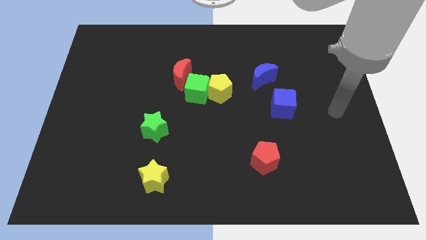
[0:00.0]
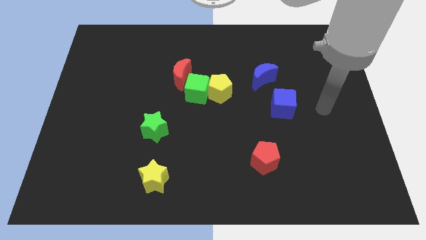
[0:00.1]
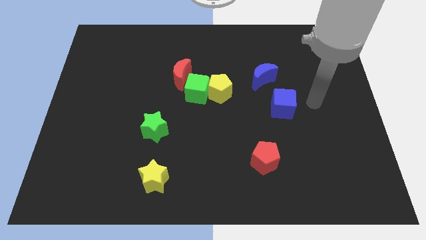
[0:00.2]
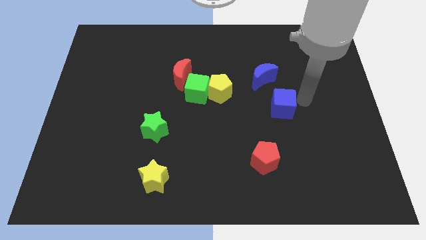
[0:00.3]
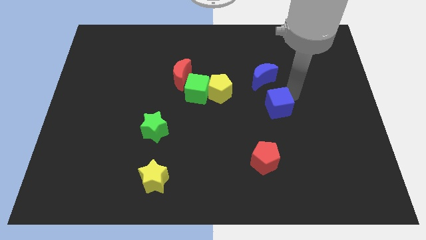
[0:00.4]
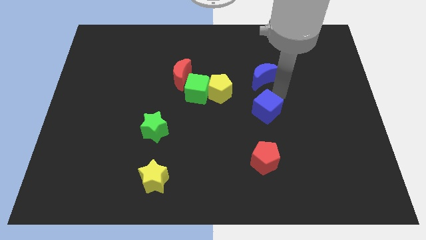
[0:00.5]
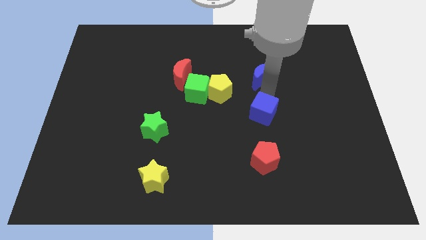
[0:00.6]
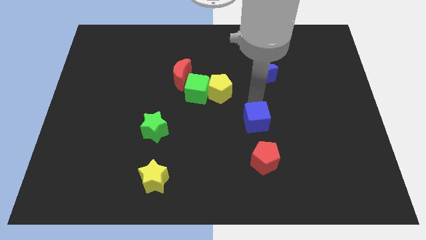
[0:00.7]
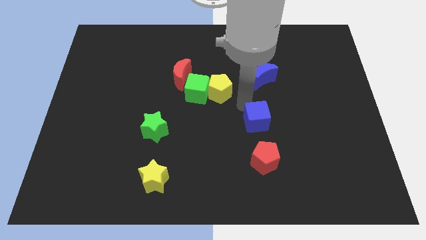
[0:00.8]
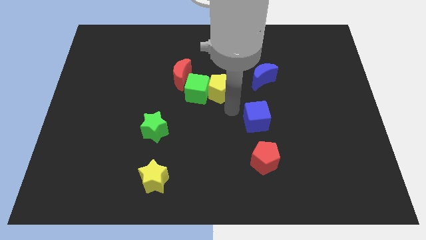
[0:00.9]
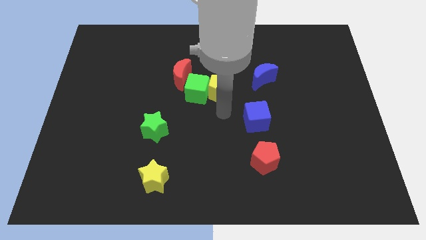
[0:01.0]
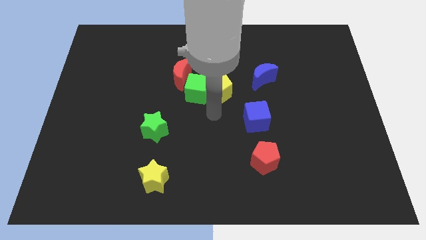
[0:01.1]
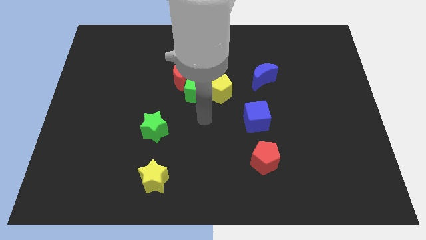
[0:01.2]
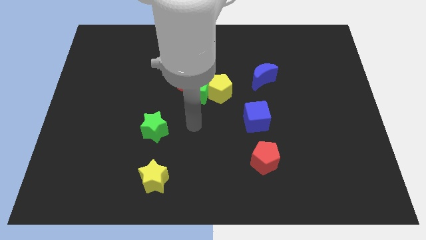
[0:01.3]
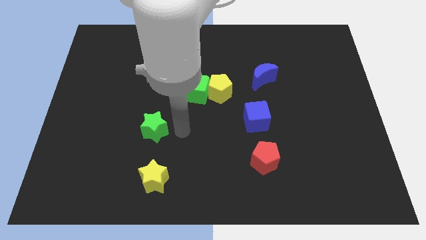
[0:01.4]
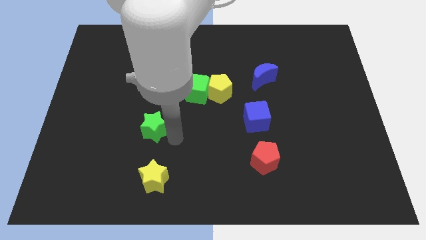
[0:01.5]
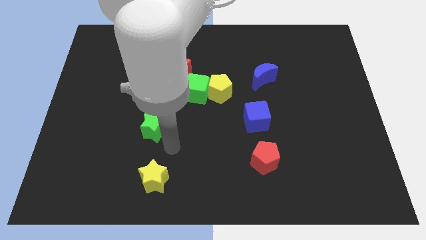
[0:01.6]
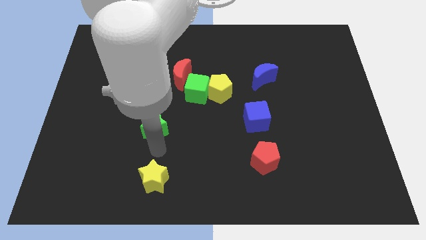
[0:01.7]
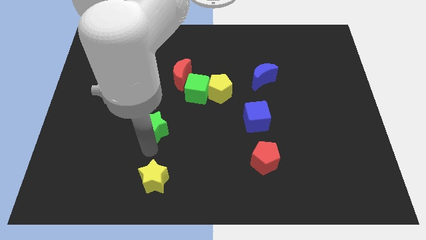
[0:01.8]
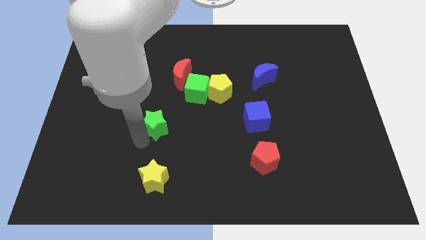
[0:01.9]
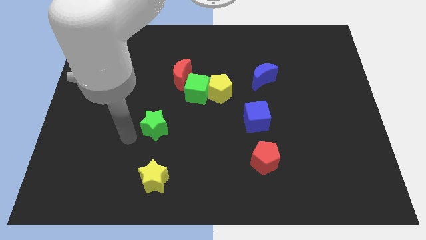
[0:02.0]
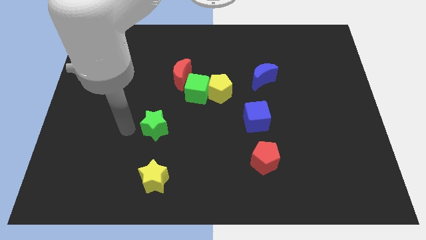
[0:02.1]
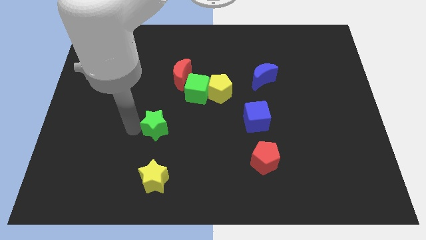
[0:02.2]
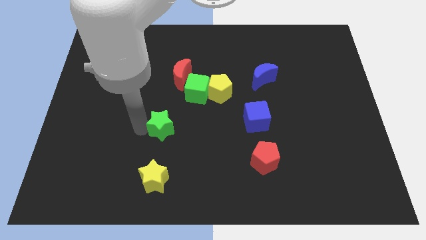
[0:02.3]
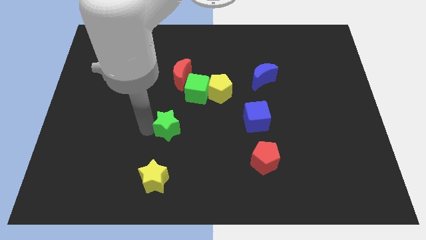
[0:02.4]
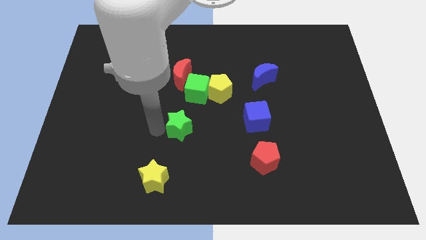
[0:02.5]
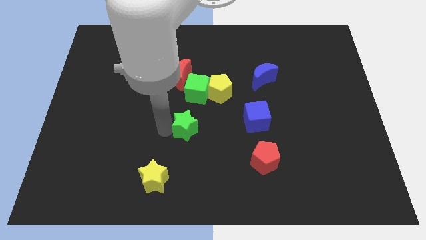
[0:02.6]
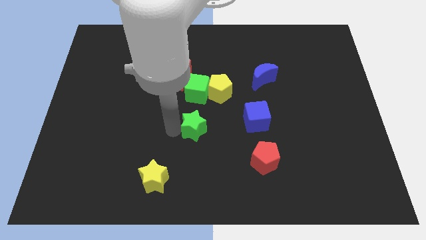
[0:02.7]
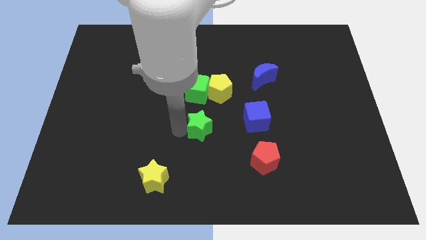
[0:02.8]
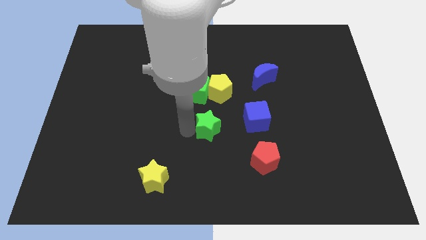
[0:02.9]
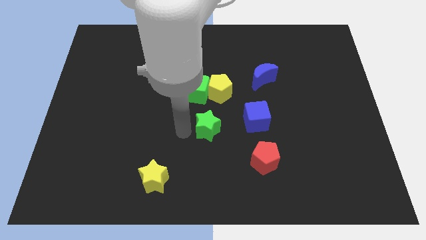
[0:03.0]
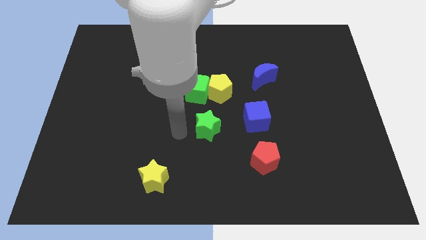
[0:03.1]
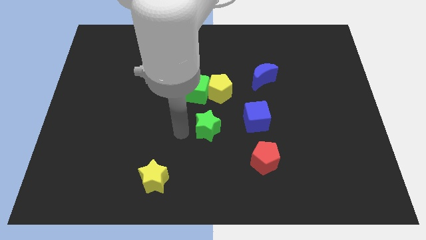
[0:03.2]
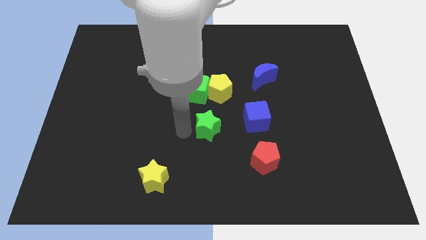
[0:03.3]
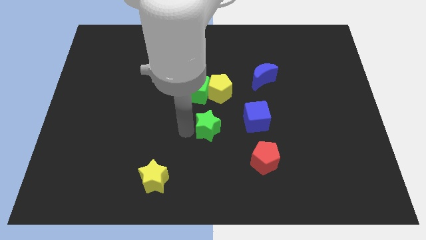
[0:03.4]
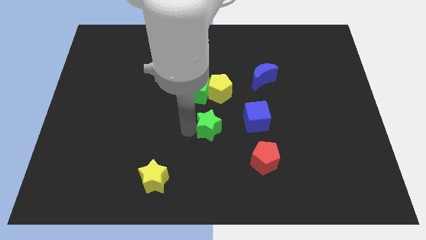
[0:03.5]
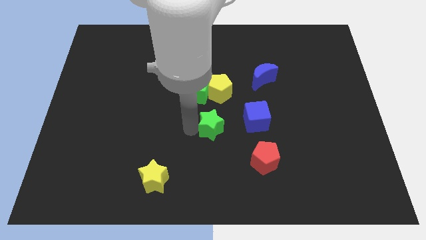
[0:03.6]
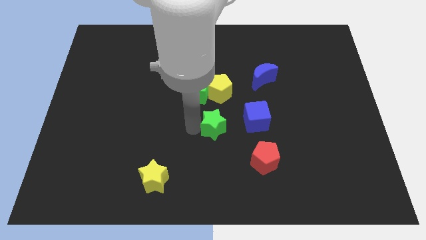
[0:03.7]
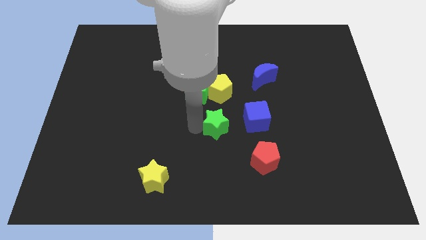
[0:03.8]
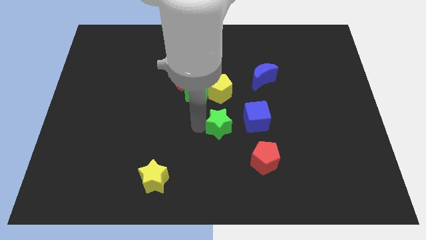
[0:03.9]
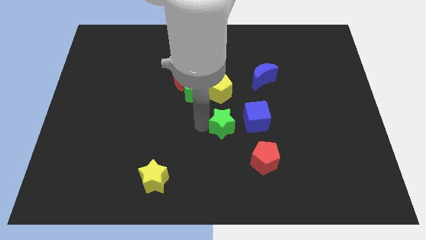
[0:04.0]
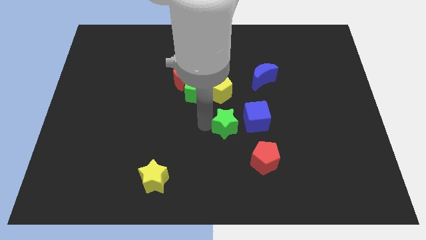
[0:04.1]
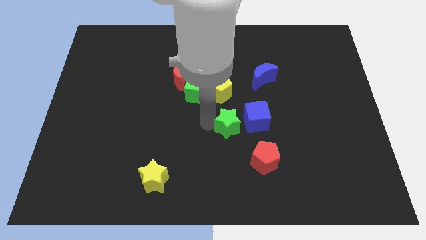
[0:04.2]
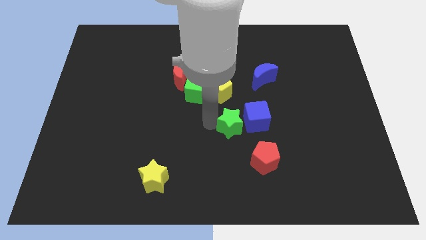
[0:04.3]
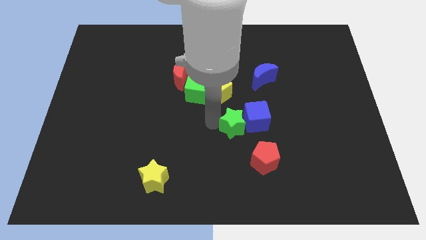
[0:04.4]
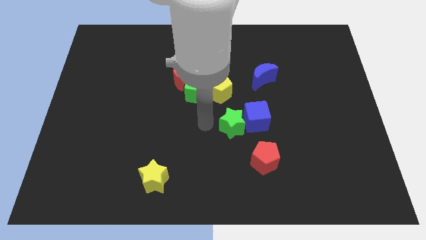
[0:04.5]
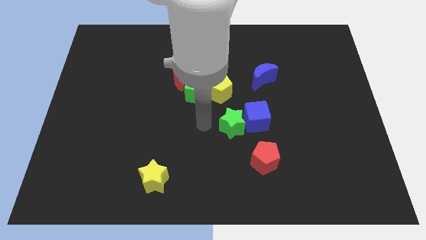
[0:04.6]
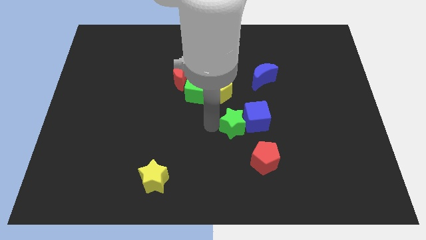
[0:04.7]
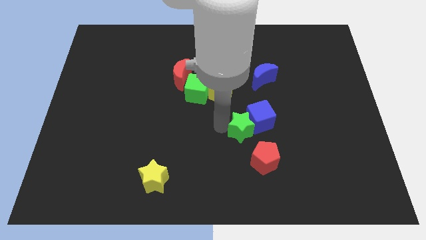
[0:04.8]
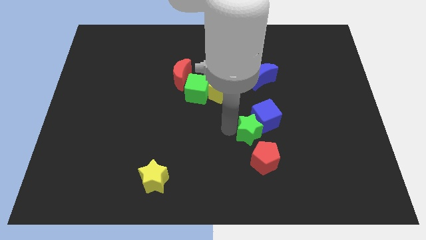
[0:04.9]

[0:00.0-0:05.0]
move the green star to the right

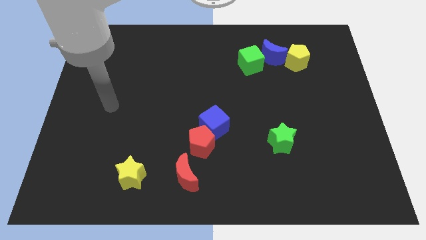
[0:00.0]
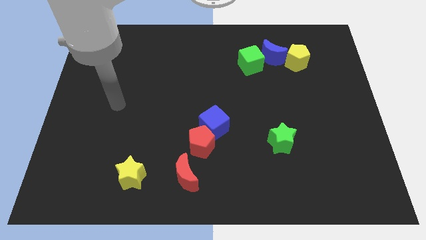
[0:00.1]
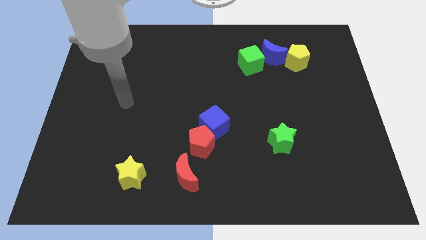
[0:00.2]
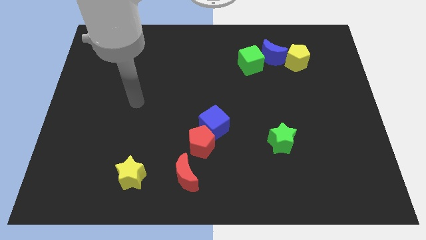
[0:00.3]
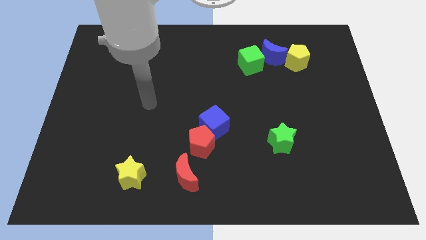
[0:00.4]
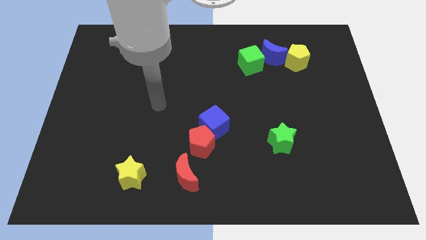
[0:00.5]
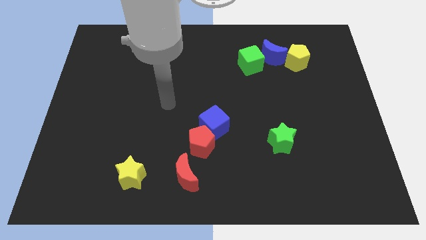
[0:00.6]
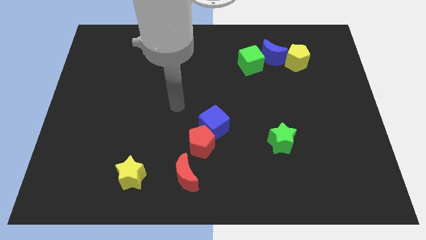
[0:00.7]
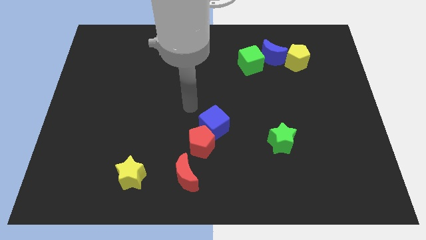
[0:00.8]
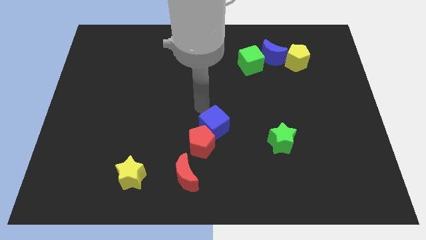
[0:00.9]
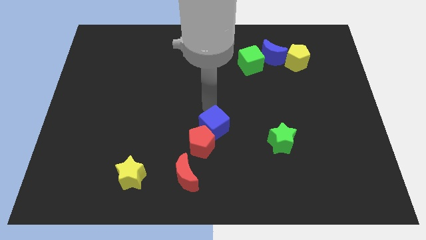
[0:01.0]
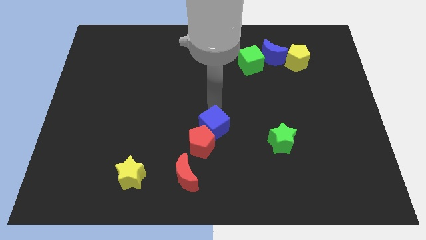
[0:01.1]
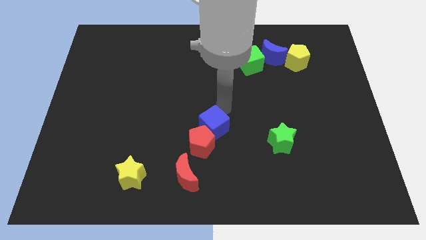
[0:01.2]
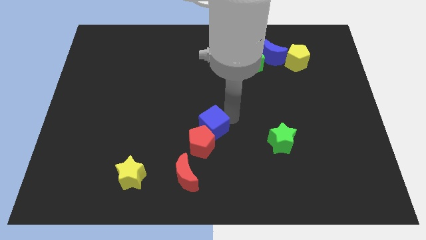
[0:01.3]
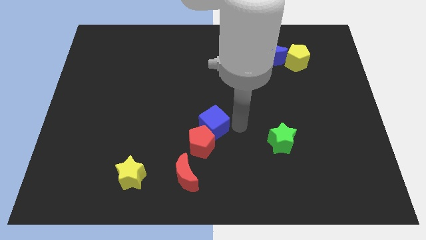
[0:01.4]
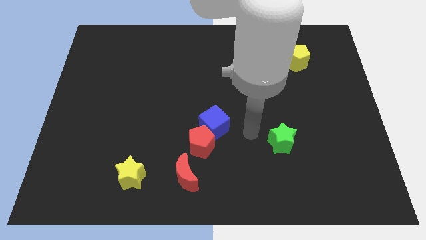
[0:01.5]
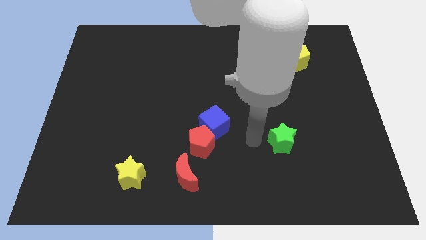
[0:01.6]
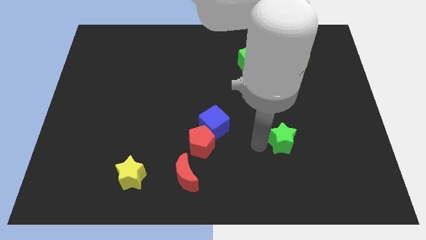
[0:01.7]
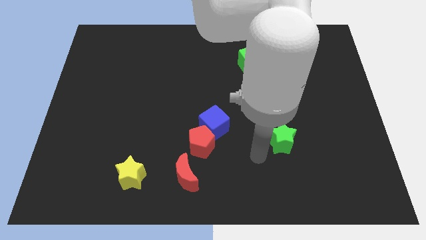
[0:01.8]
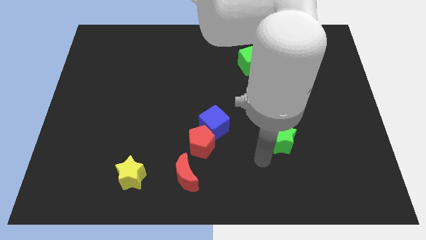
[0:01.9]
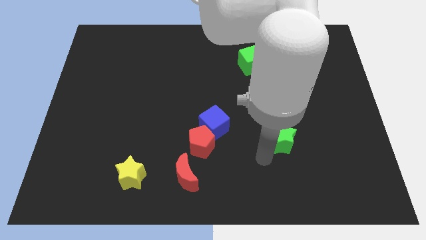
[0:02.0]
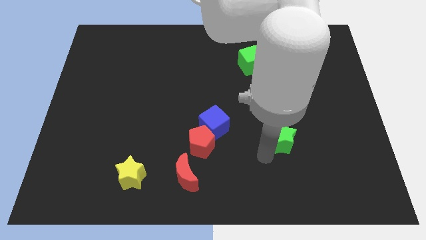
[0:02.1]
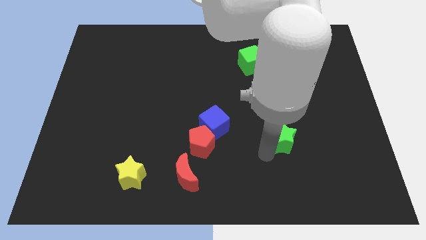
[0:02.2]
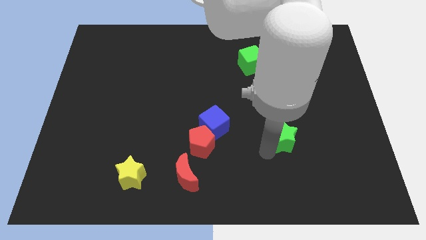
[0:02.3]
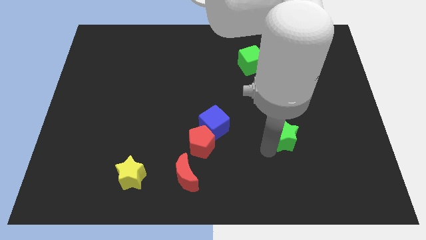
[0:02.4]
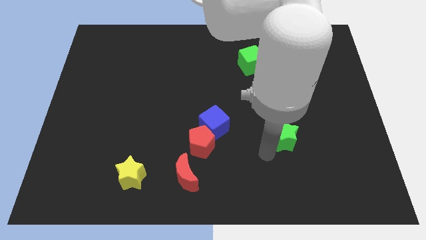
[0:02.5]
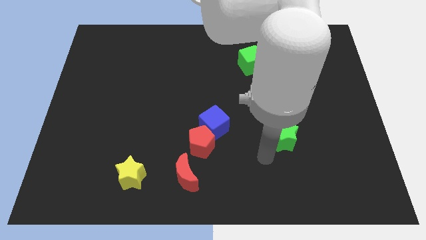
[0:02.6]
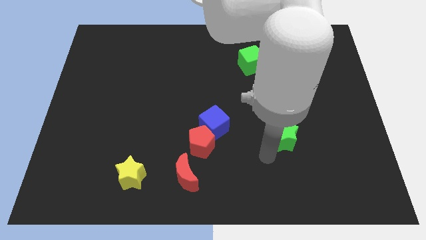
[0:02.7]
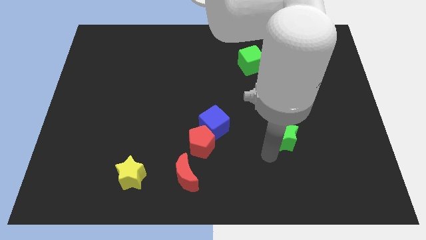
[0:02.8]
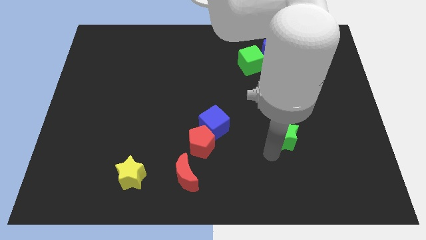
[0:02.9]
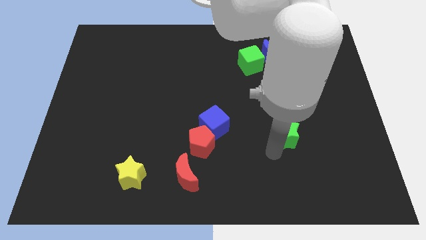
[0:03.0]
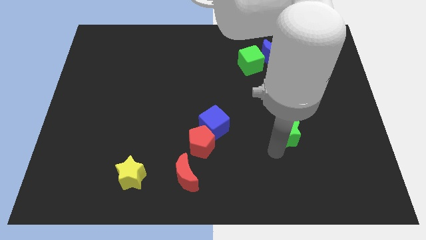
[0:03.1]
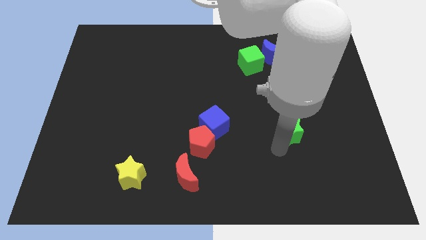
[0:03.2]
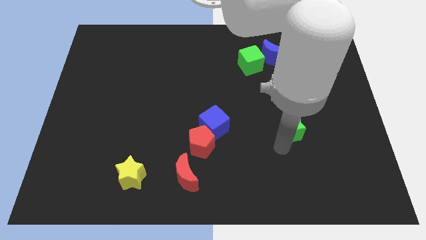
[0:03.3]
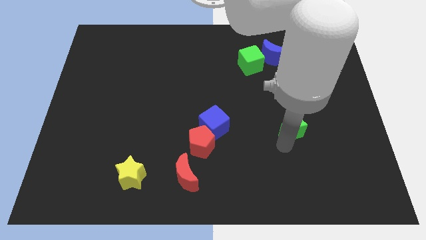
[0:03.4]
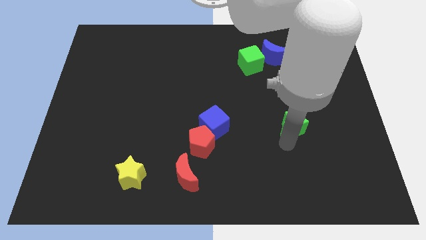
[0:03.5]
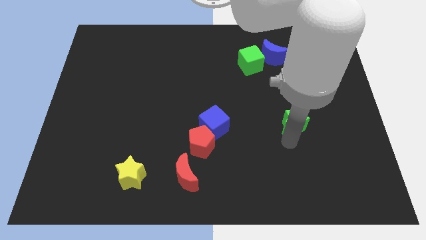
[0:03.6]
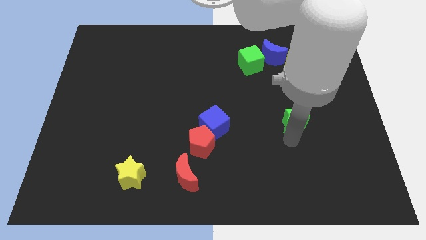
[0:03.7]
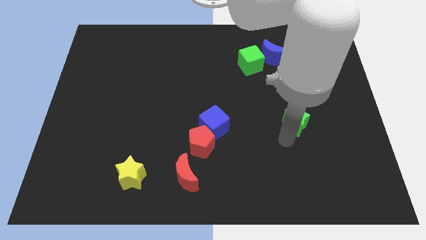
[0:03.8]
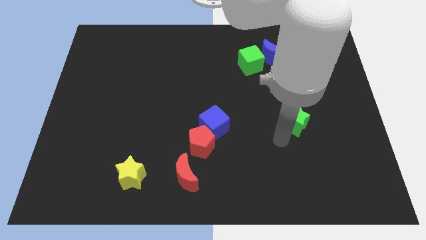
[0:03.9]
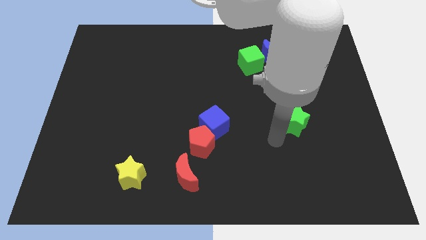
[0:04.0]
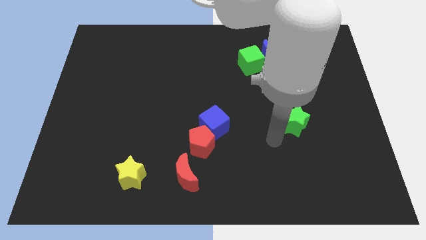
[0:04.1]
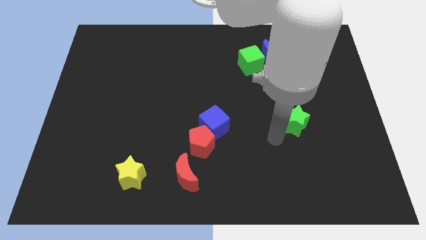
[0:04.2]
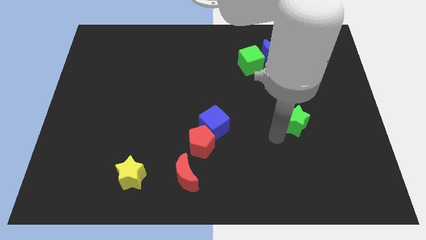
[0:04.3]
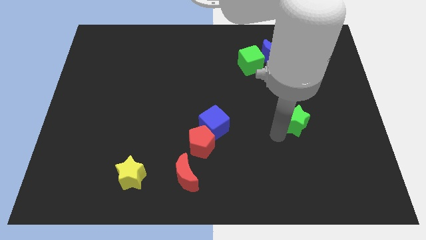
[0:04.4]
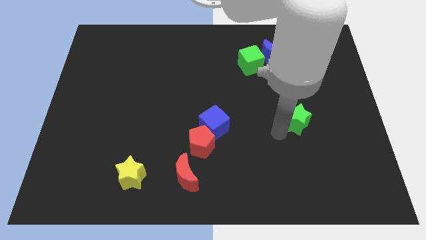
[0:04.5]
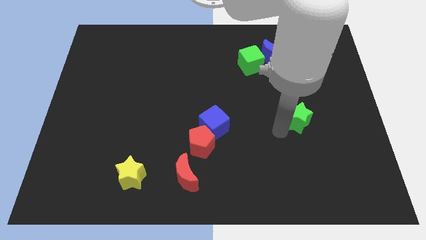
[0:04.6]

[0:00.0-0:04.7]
slightly slide the green star up and to the right
